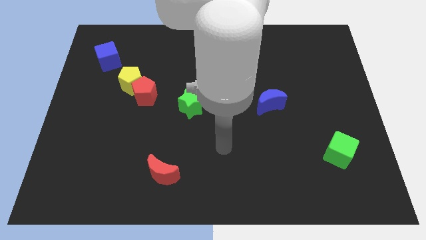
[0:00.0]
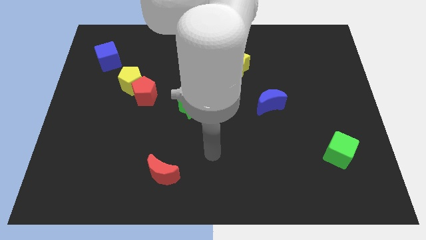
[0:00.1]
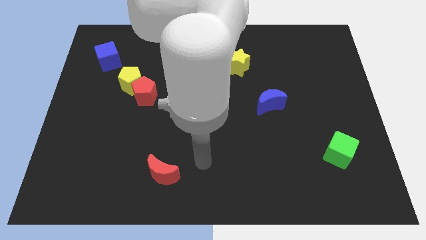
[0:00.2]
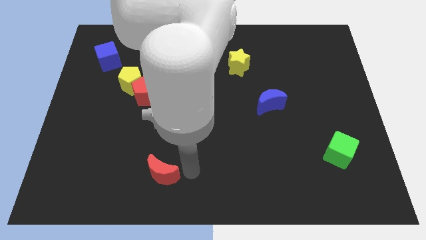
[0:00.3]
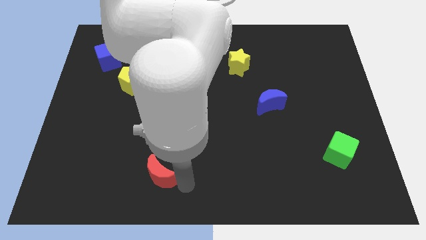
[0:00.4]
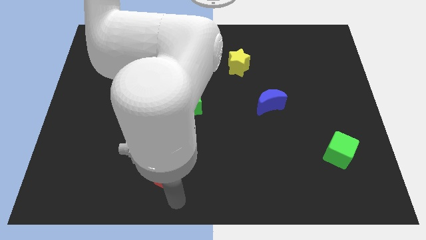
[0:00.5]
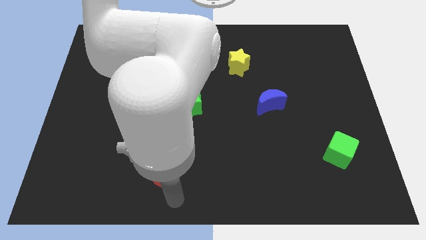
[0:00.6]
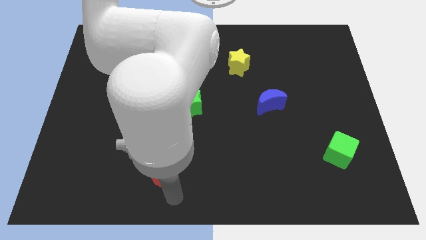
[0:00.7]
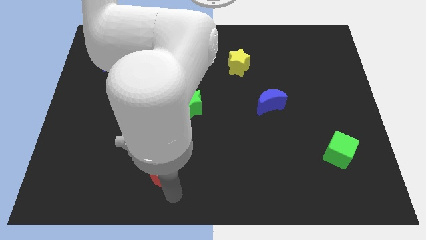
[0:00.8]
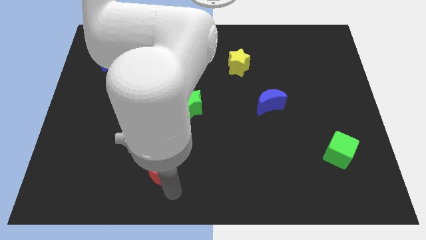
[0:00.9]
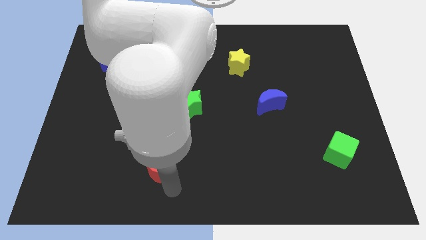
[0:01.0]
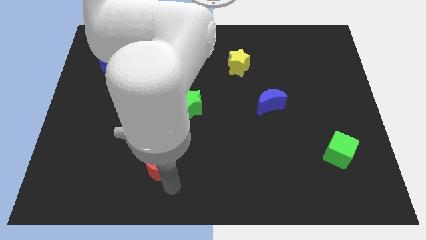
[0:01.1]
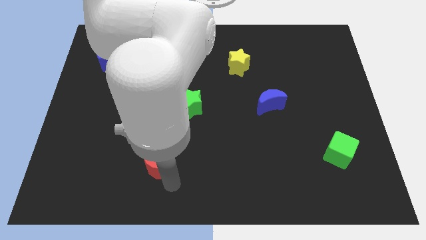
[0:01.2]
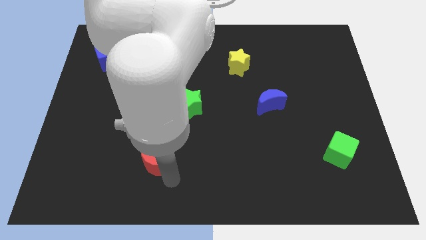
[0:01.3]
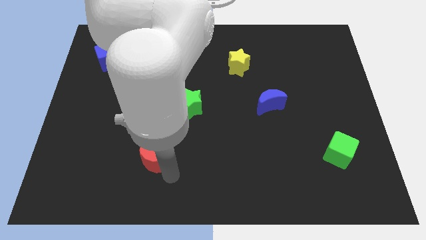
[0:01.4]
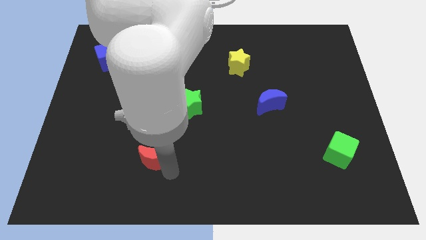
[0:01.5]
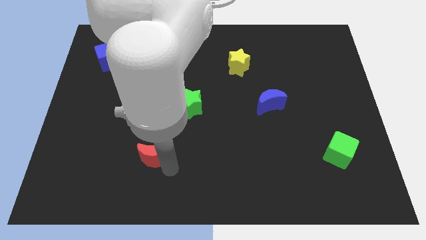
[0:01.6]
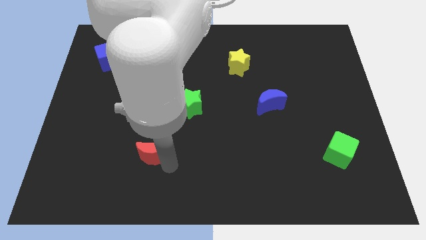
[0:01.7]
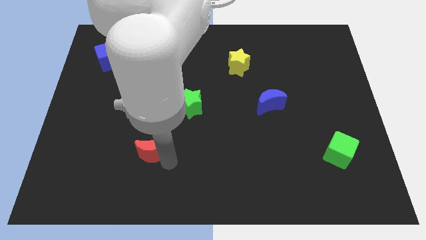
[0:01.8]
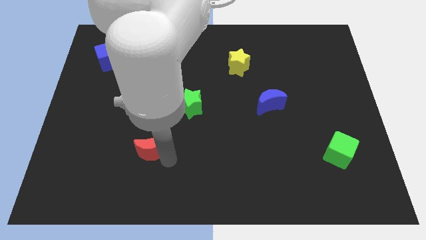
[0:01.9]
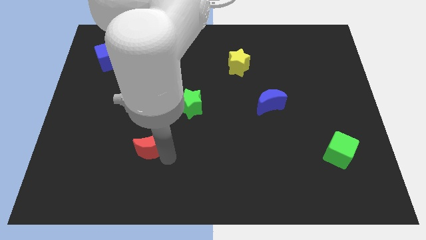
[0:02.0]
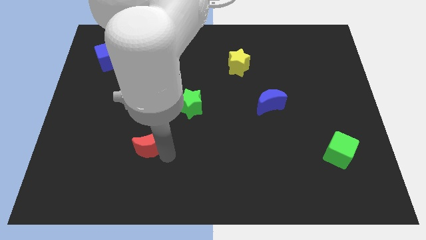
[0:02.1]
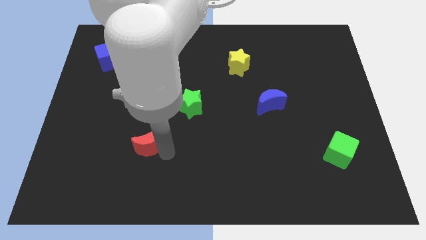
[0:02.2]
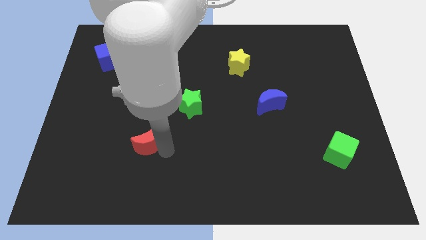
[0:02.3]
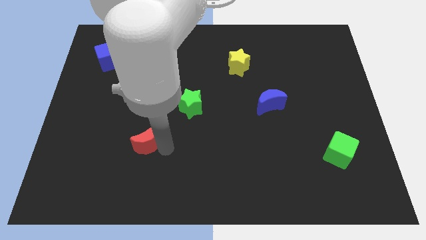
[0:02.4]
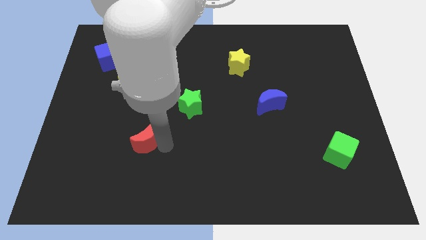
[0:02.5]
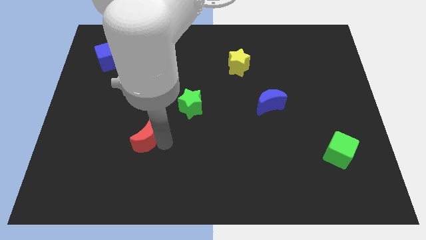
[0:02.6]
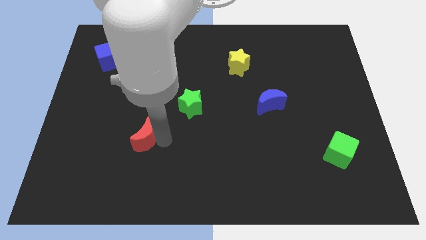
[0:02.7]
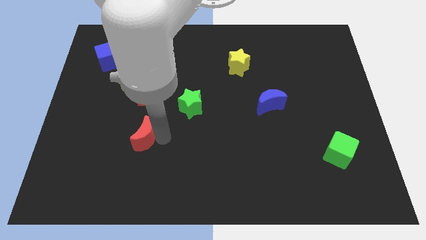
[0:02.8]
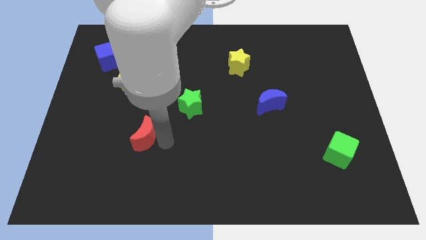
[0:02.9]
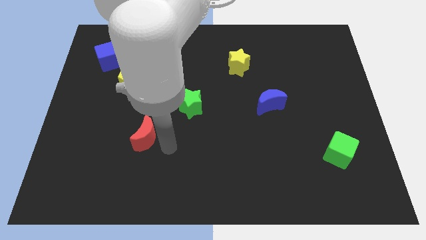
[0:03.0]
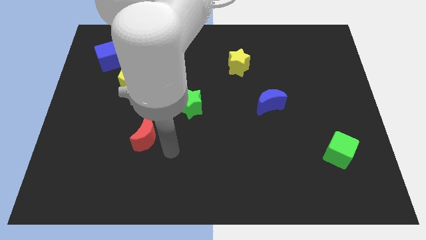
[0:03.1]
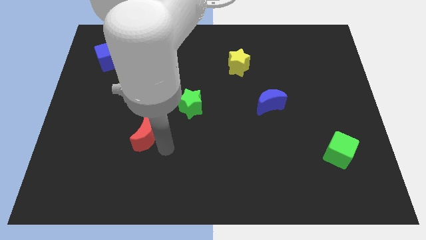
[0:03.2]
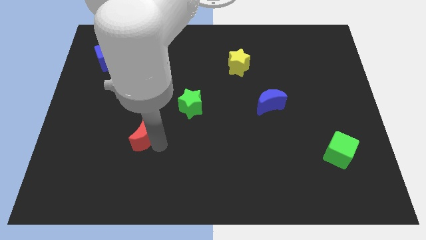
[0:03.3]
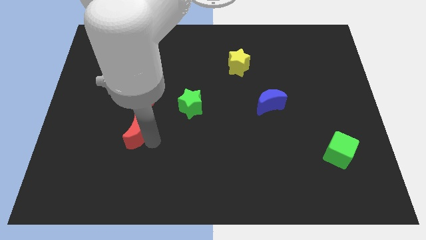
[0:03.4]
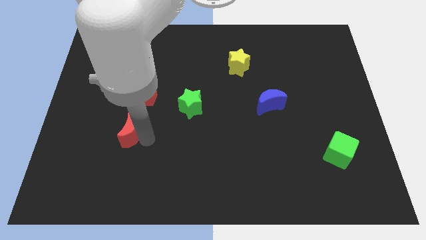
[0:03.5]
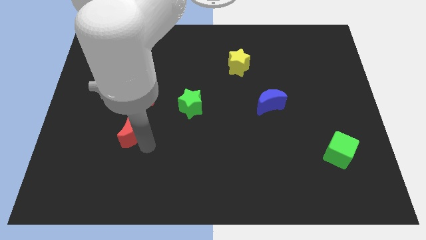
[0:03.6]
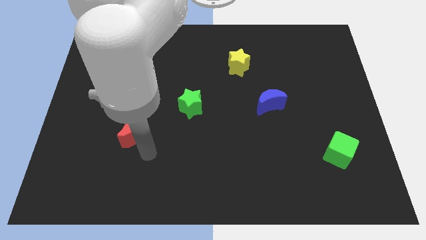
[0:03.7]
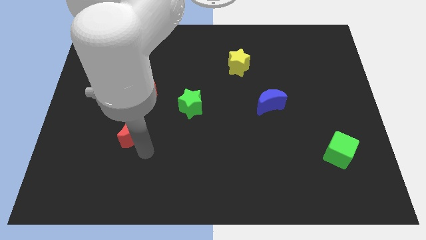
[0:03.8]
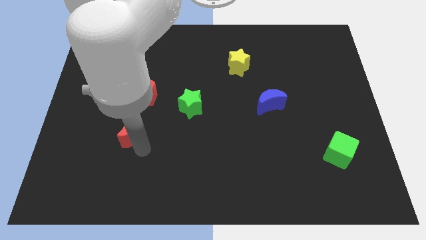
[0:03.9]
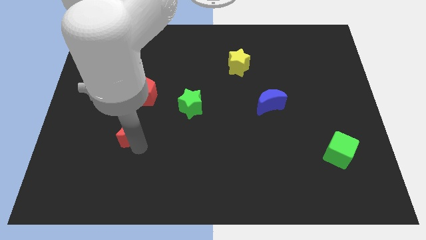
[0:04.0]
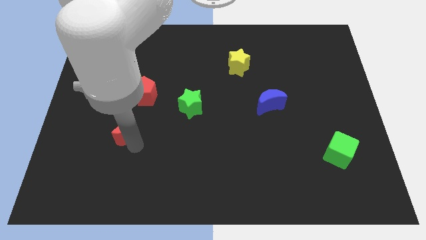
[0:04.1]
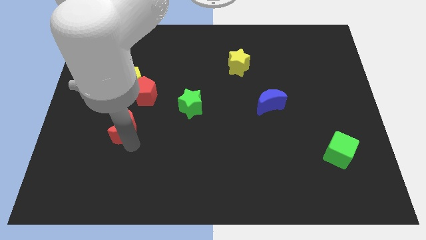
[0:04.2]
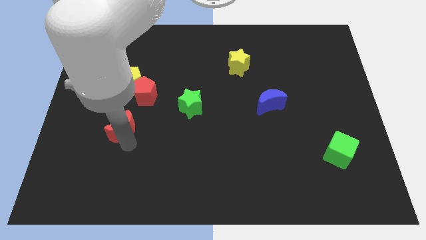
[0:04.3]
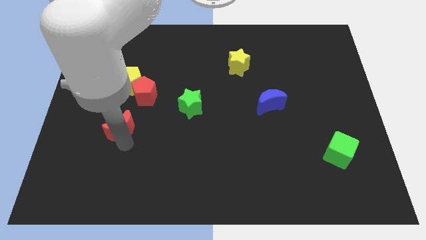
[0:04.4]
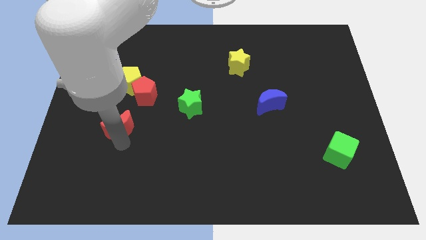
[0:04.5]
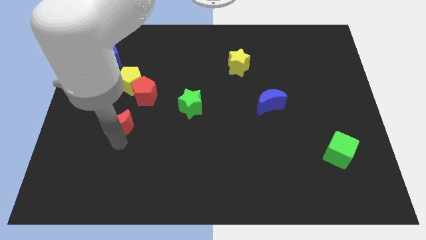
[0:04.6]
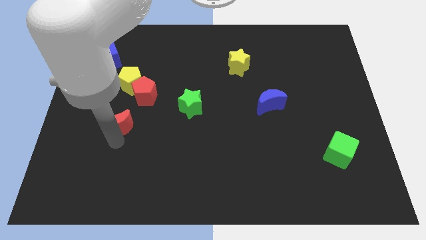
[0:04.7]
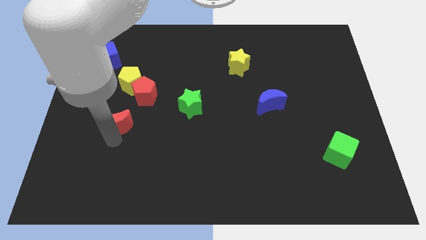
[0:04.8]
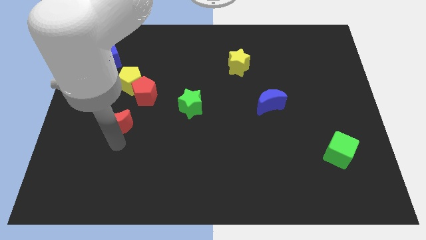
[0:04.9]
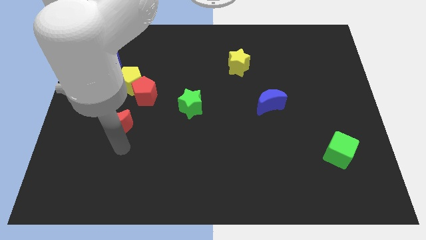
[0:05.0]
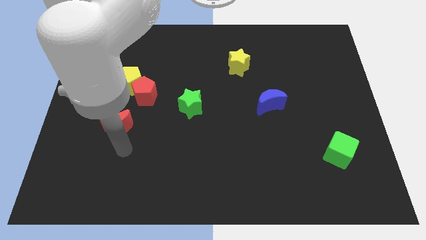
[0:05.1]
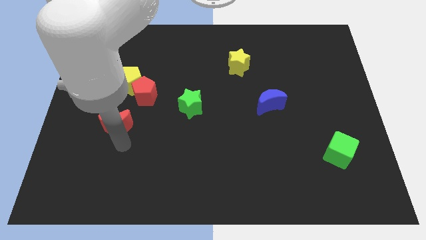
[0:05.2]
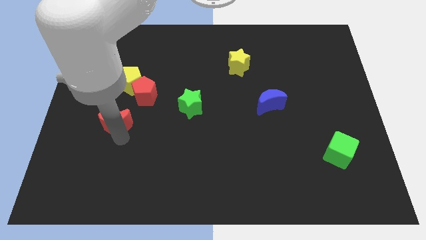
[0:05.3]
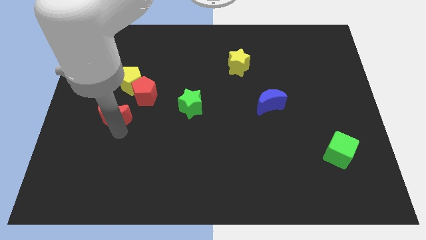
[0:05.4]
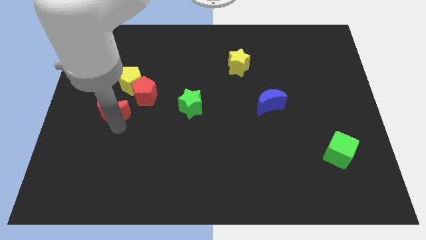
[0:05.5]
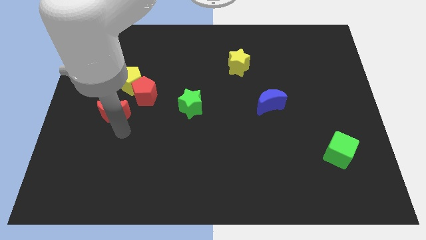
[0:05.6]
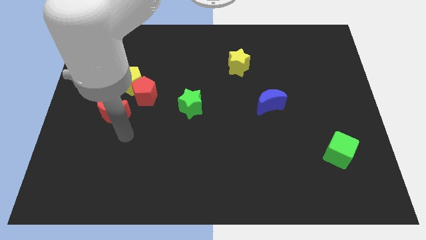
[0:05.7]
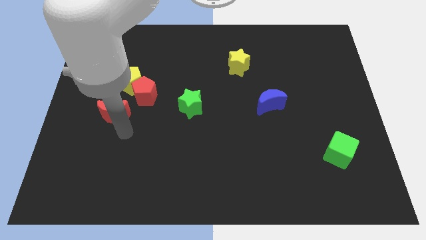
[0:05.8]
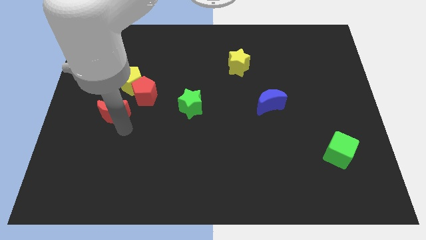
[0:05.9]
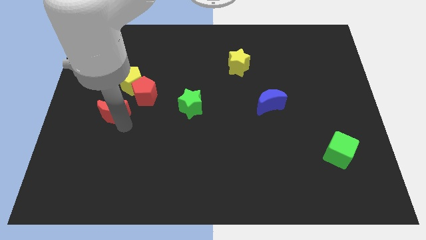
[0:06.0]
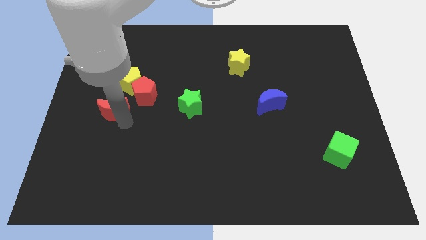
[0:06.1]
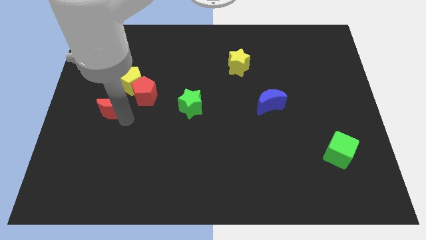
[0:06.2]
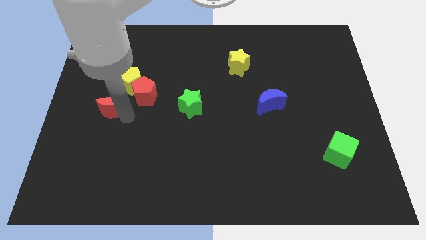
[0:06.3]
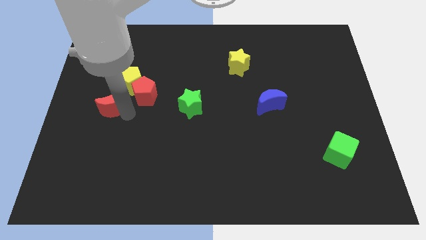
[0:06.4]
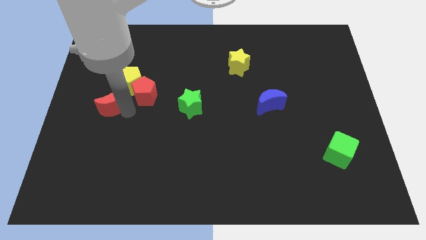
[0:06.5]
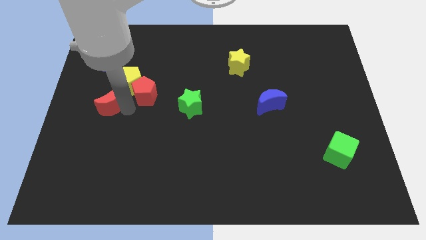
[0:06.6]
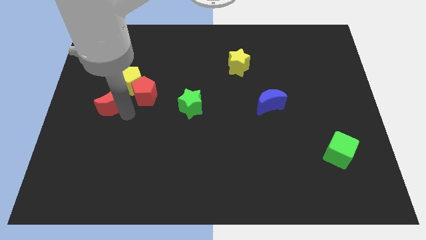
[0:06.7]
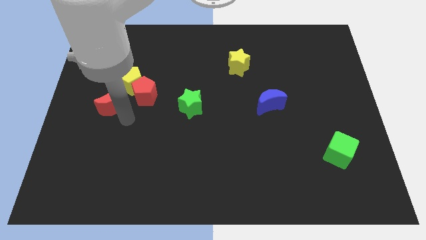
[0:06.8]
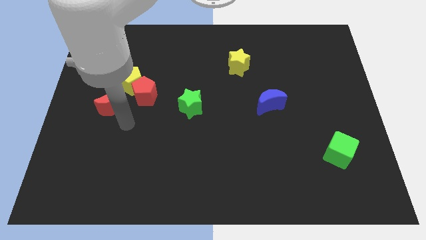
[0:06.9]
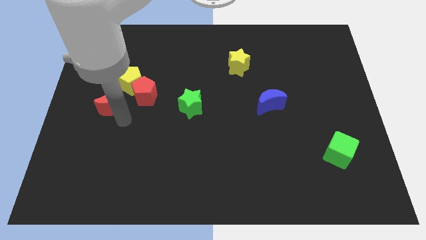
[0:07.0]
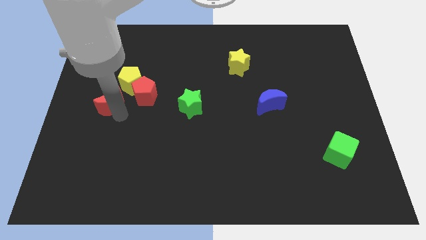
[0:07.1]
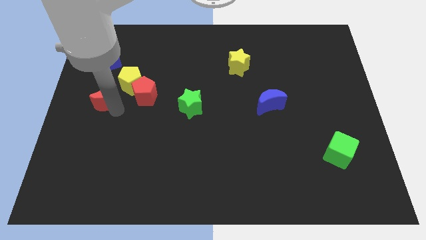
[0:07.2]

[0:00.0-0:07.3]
slide the red moon to the bottom of the blue cube

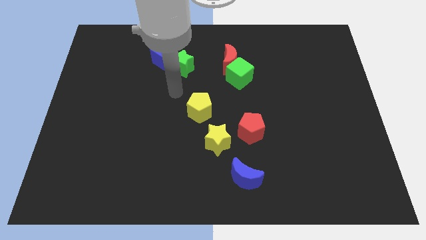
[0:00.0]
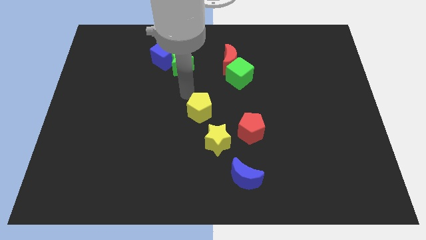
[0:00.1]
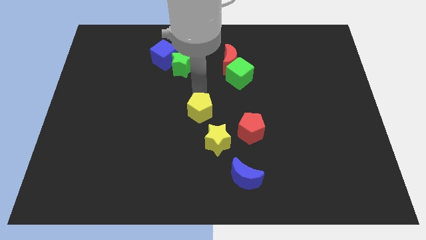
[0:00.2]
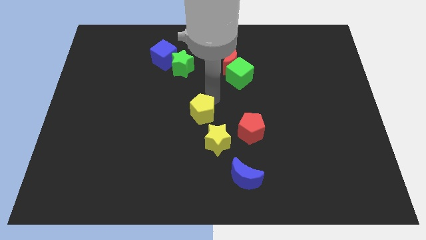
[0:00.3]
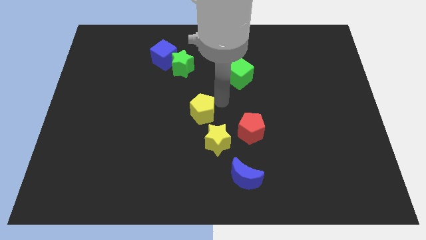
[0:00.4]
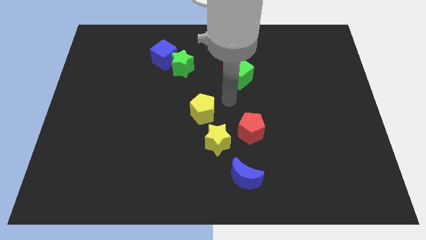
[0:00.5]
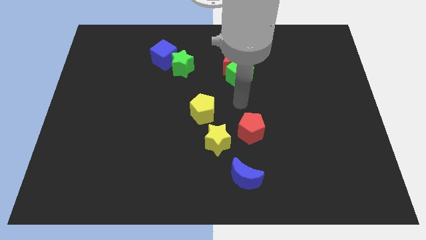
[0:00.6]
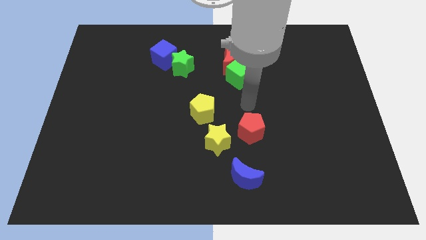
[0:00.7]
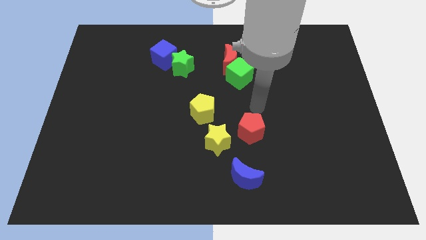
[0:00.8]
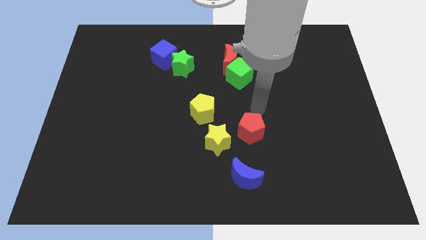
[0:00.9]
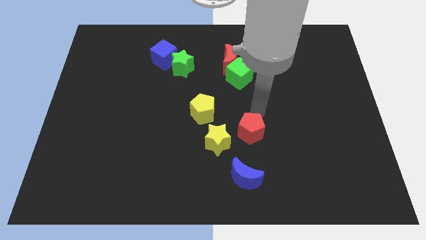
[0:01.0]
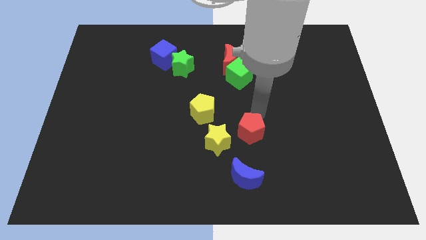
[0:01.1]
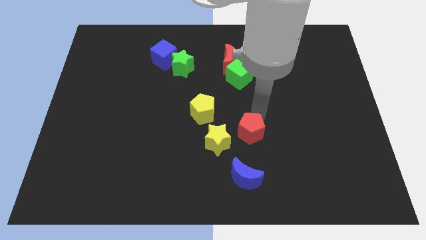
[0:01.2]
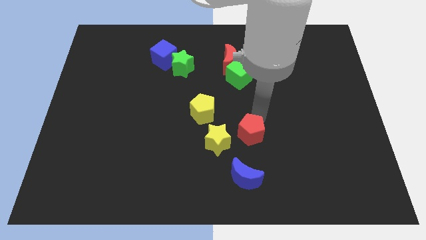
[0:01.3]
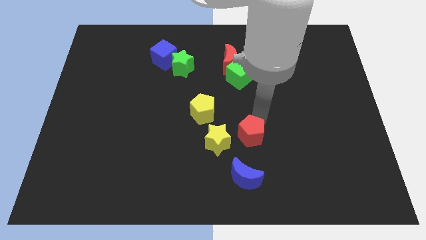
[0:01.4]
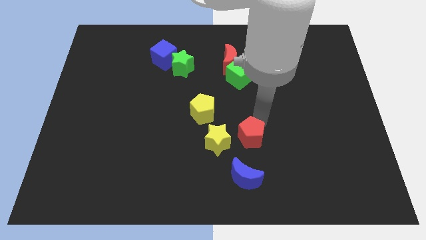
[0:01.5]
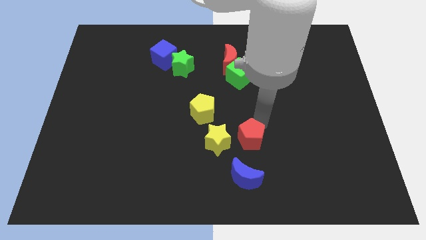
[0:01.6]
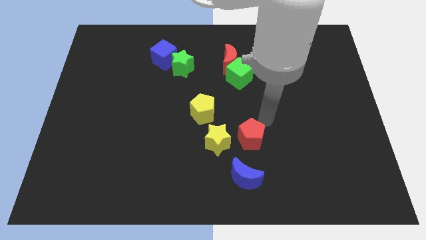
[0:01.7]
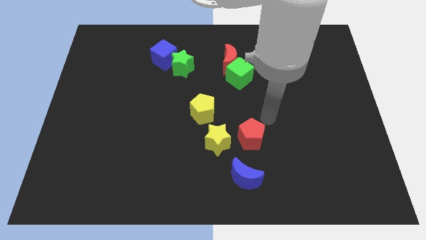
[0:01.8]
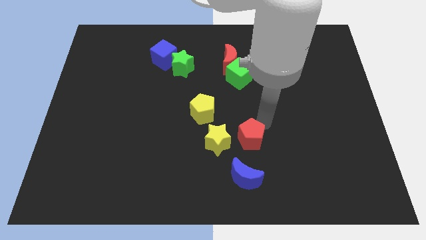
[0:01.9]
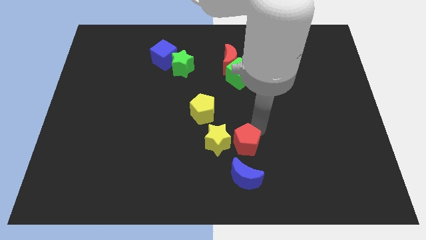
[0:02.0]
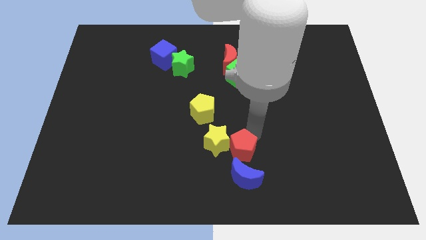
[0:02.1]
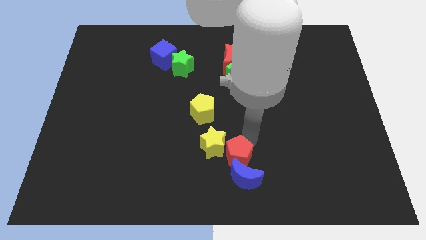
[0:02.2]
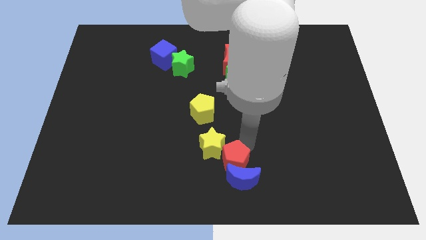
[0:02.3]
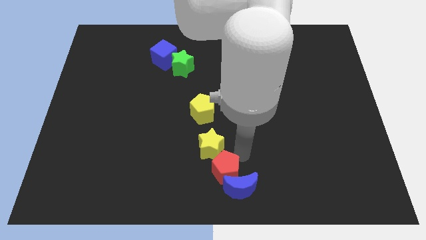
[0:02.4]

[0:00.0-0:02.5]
move the red pentagon left of the blue moon
